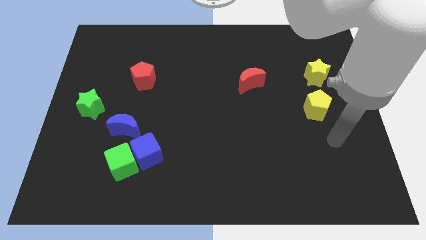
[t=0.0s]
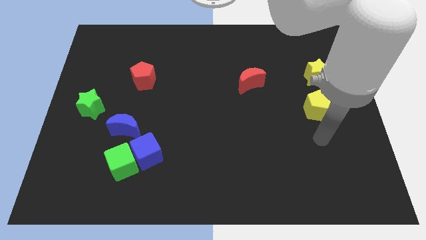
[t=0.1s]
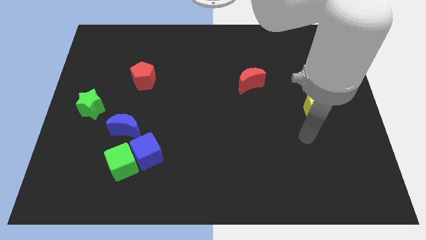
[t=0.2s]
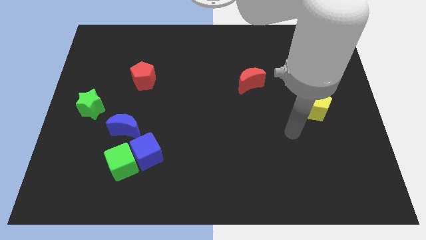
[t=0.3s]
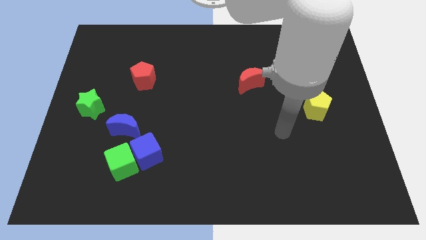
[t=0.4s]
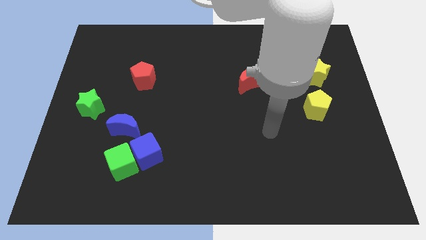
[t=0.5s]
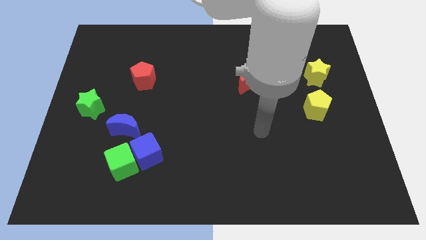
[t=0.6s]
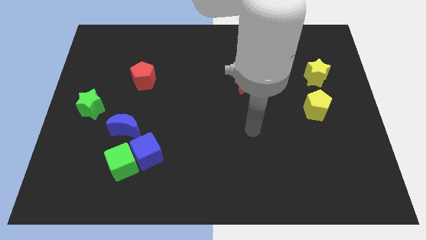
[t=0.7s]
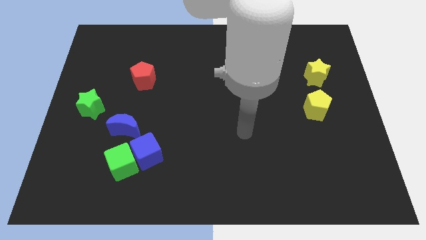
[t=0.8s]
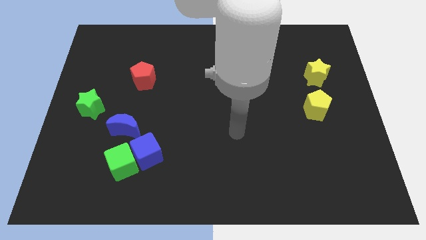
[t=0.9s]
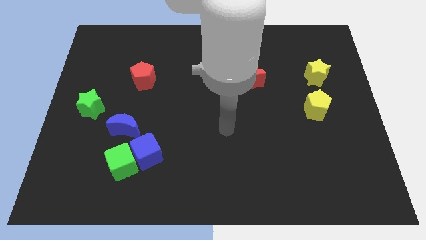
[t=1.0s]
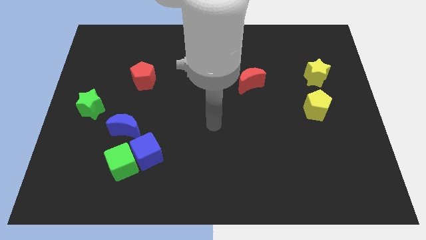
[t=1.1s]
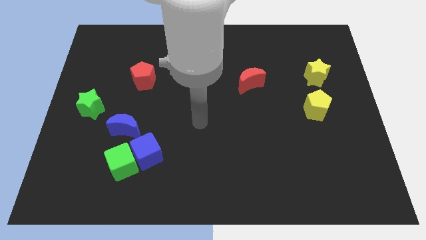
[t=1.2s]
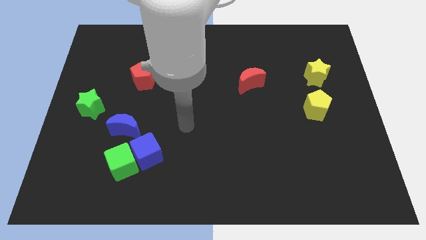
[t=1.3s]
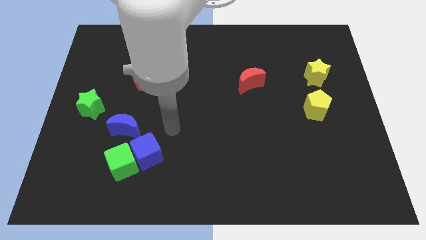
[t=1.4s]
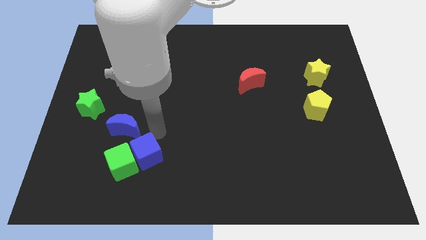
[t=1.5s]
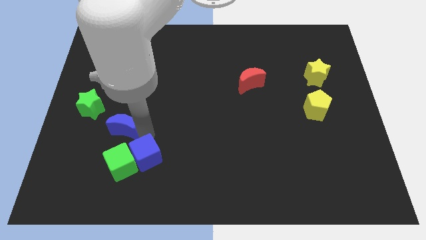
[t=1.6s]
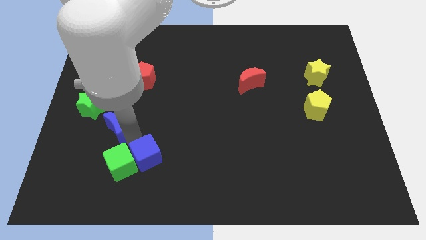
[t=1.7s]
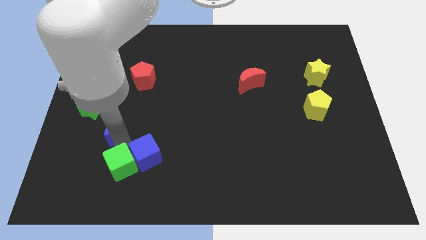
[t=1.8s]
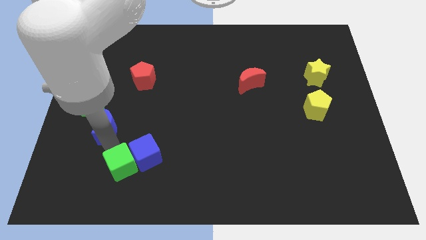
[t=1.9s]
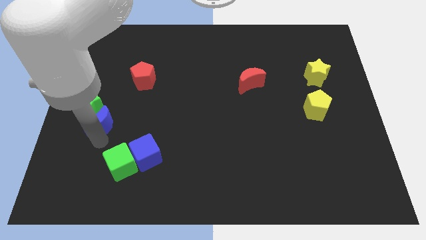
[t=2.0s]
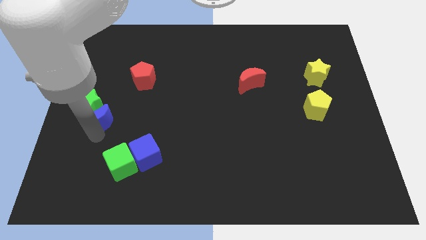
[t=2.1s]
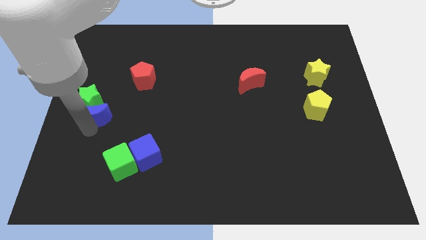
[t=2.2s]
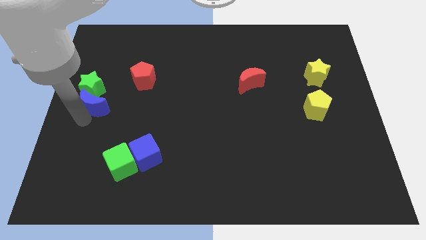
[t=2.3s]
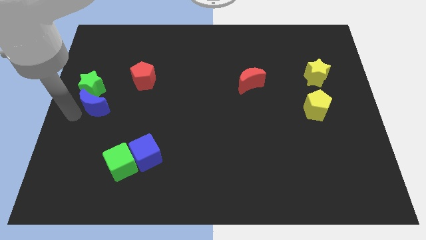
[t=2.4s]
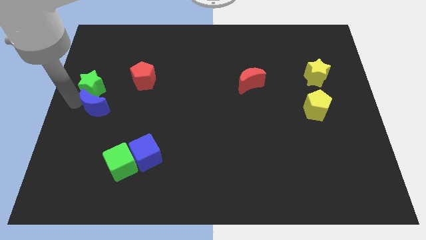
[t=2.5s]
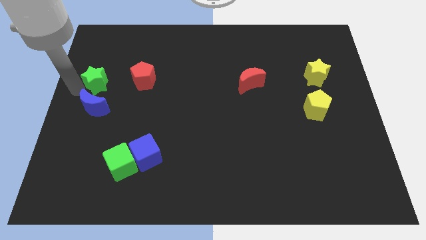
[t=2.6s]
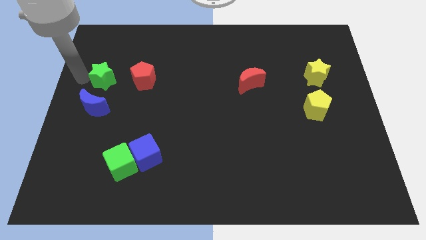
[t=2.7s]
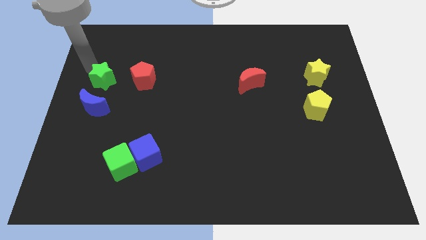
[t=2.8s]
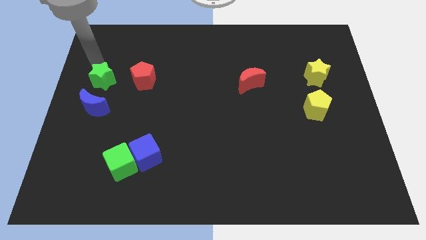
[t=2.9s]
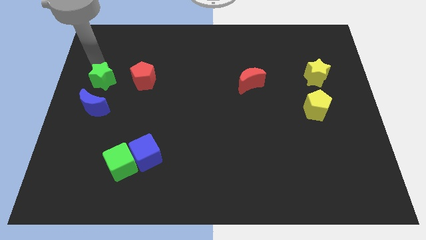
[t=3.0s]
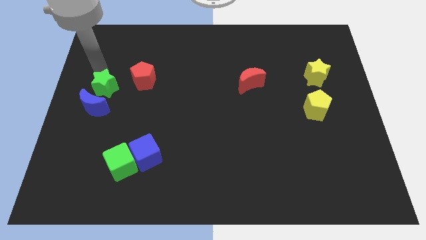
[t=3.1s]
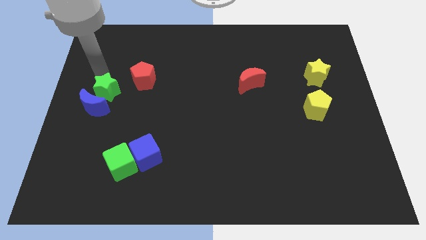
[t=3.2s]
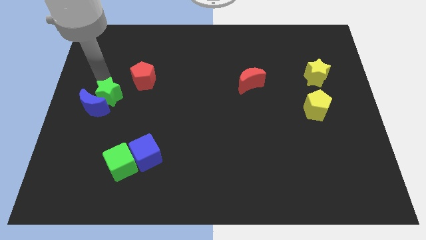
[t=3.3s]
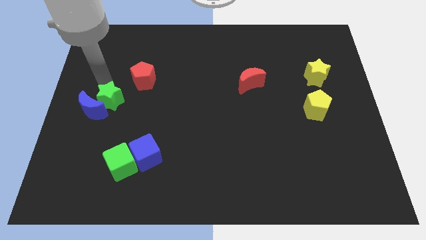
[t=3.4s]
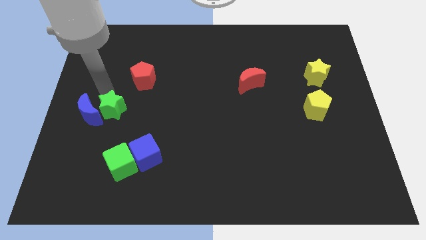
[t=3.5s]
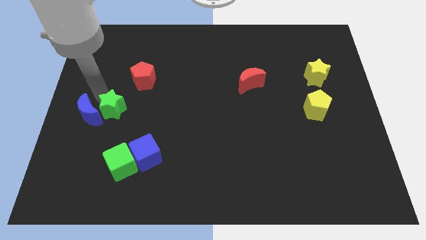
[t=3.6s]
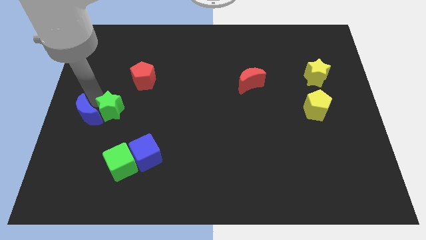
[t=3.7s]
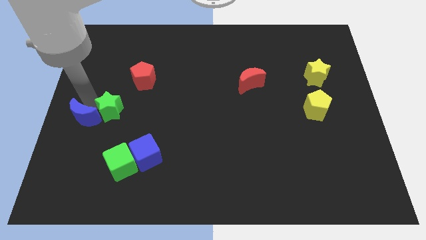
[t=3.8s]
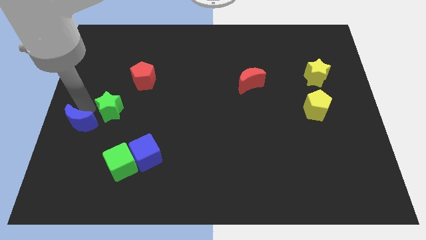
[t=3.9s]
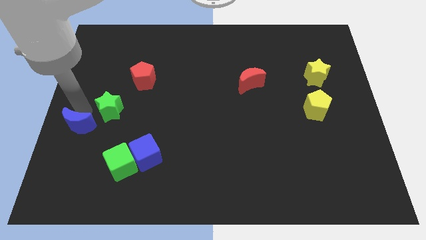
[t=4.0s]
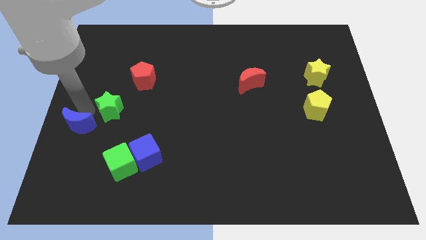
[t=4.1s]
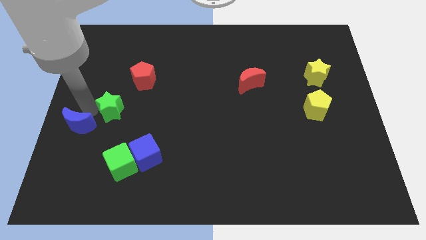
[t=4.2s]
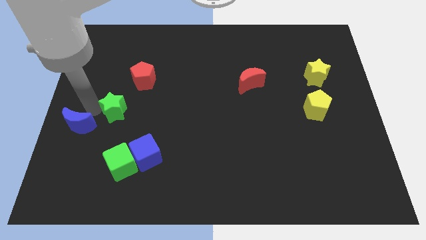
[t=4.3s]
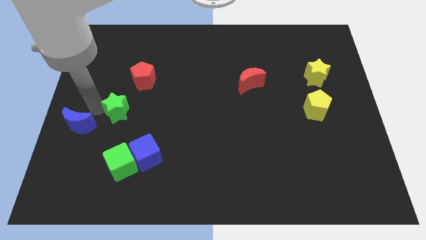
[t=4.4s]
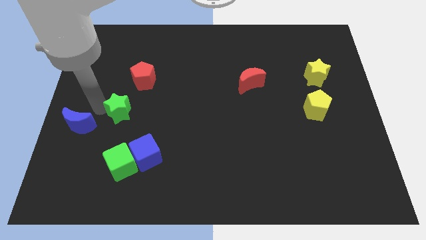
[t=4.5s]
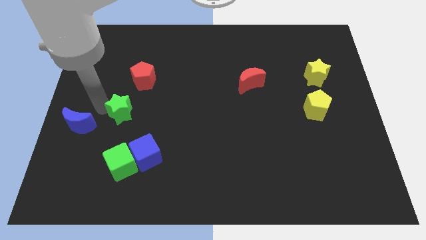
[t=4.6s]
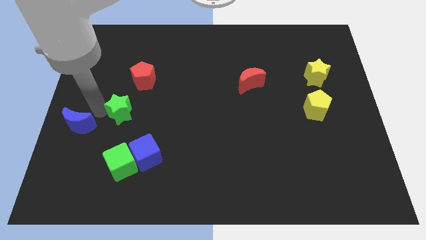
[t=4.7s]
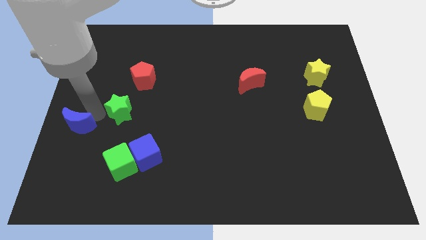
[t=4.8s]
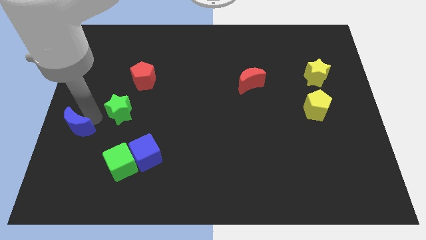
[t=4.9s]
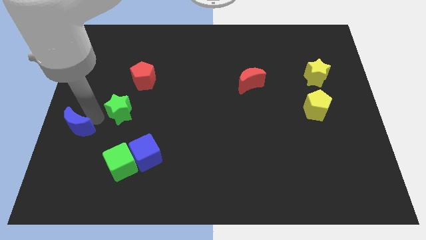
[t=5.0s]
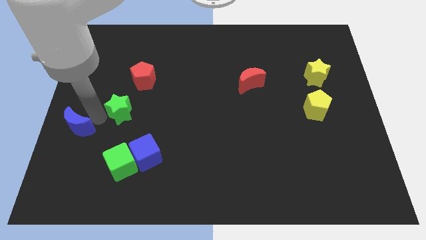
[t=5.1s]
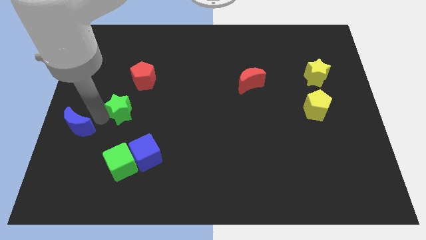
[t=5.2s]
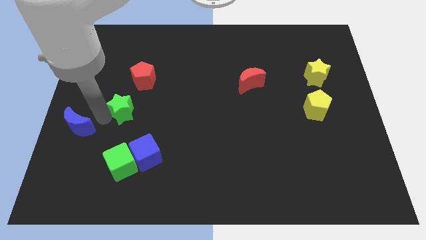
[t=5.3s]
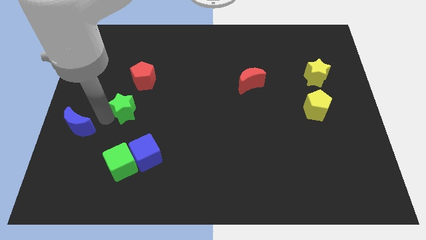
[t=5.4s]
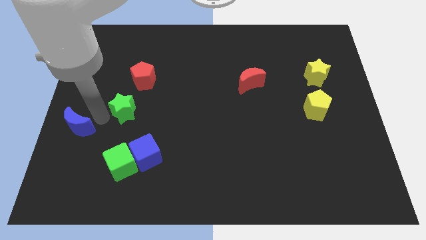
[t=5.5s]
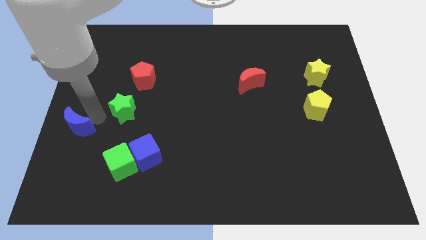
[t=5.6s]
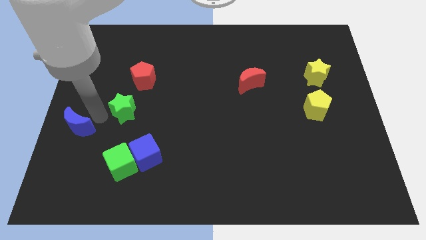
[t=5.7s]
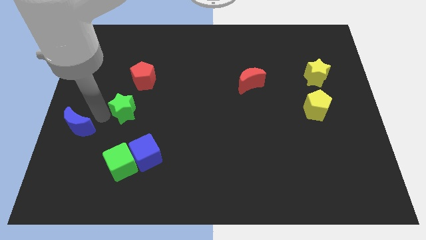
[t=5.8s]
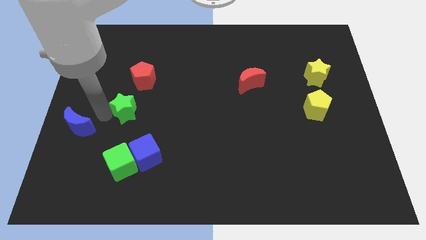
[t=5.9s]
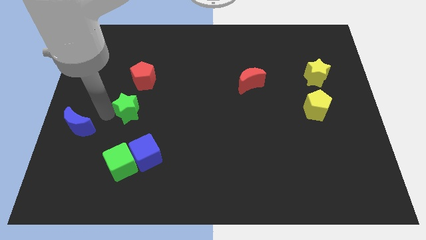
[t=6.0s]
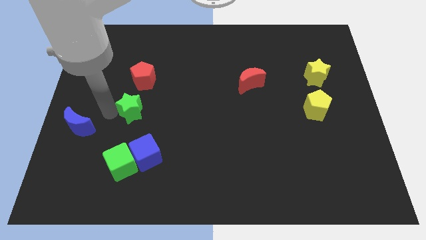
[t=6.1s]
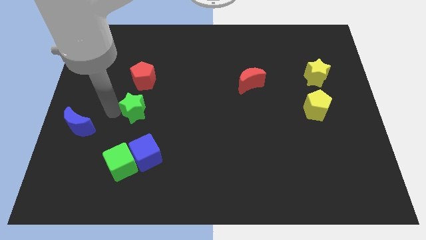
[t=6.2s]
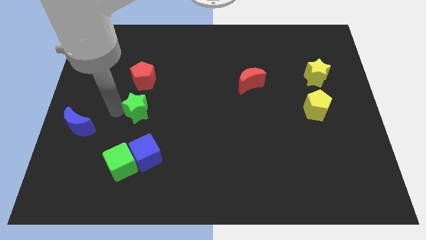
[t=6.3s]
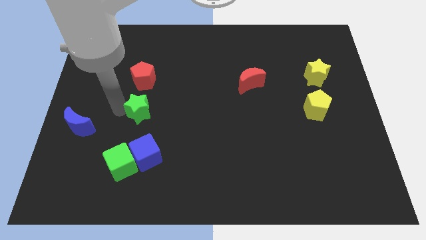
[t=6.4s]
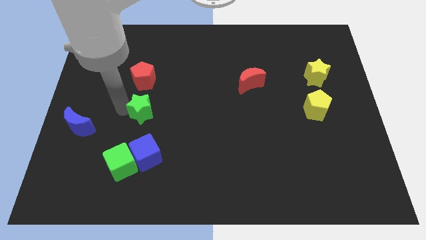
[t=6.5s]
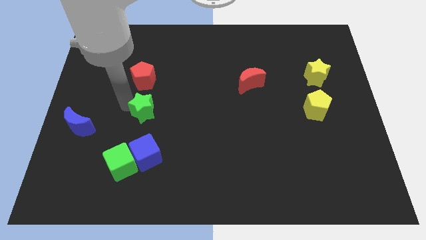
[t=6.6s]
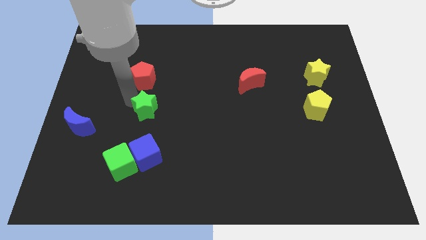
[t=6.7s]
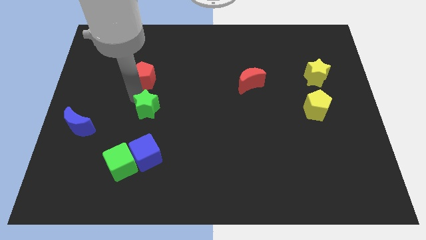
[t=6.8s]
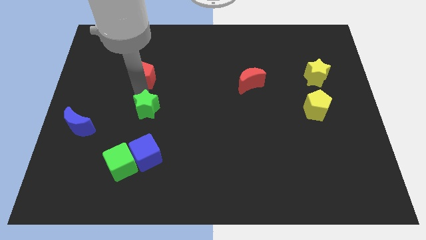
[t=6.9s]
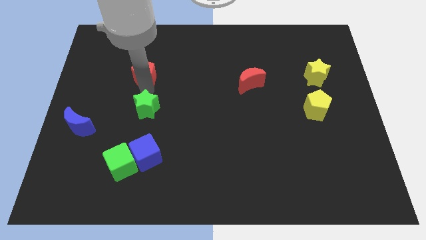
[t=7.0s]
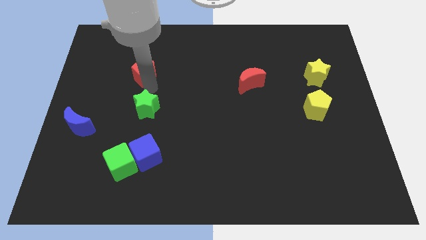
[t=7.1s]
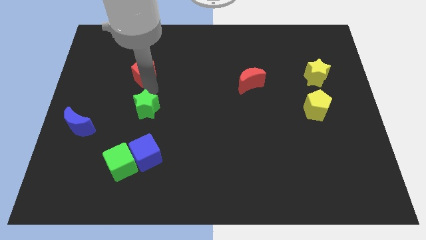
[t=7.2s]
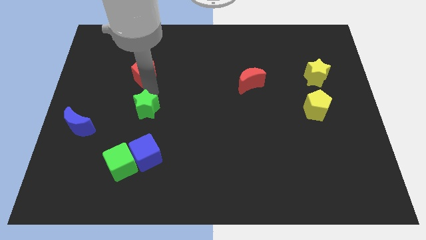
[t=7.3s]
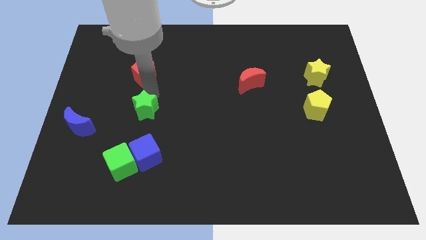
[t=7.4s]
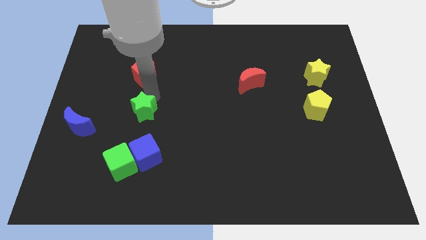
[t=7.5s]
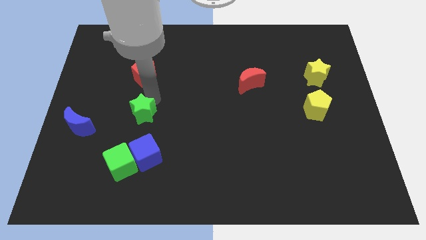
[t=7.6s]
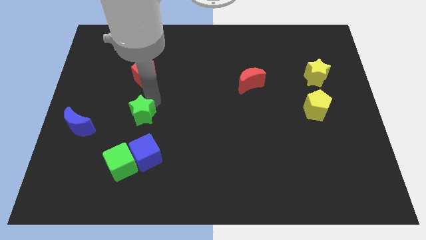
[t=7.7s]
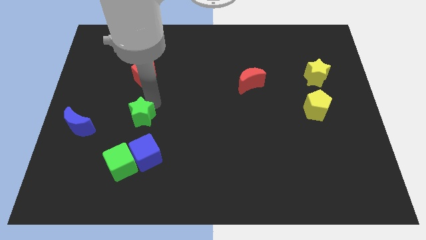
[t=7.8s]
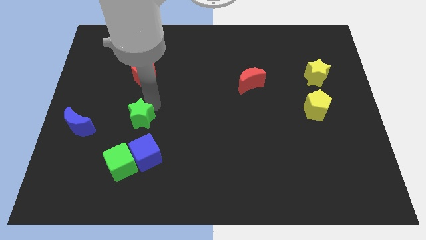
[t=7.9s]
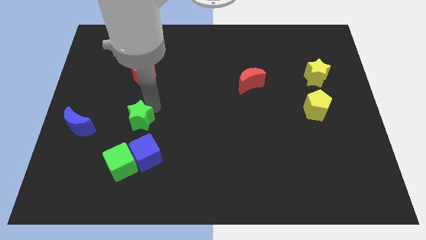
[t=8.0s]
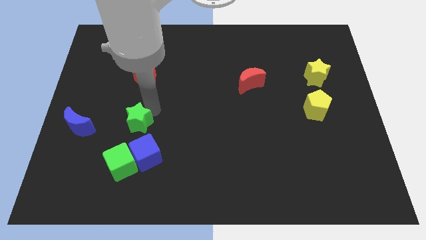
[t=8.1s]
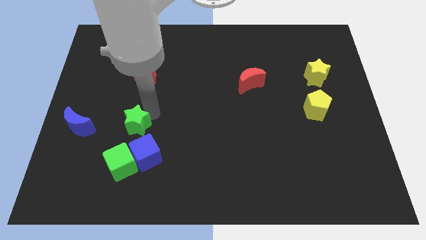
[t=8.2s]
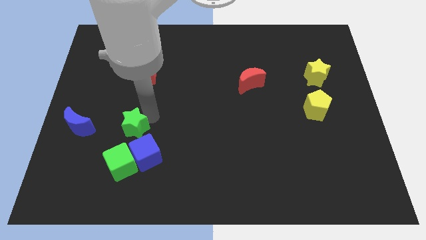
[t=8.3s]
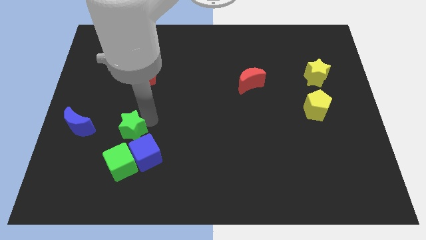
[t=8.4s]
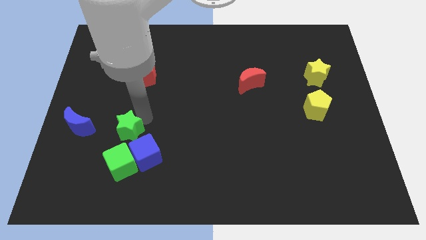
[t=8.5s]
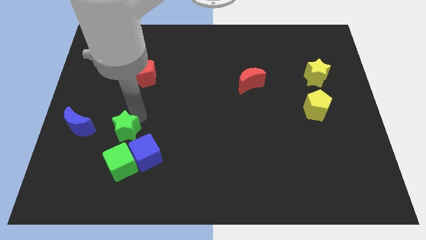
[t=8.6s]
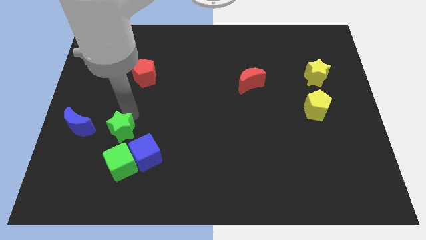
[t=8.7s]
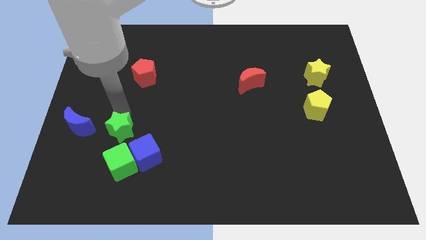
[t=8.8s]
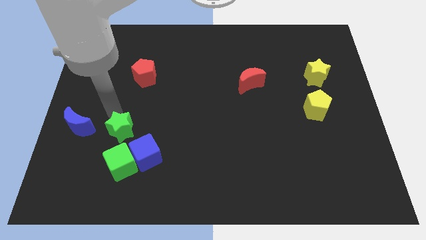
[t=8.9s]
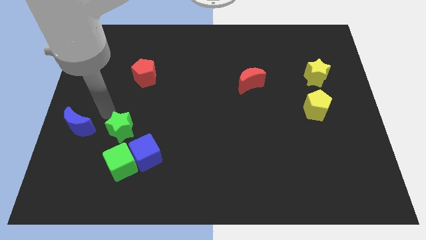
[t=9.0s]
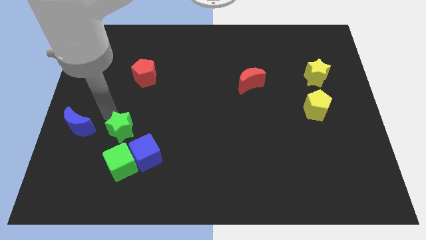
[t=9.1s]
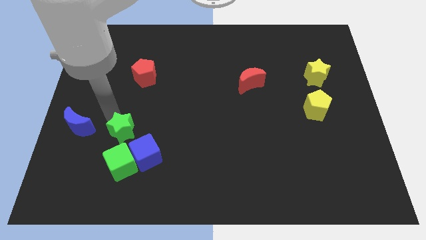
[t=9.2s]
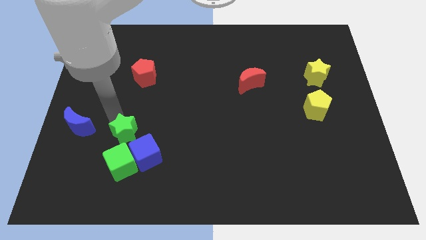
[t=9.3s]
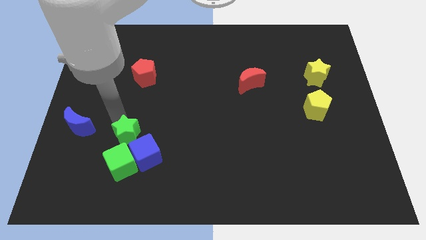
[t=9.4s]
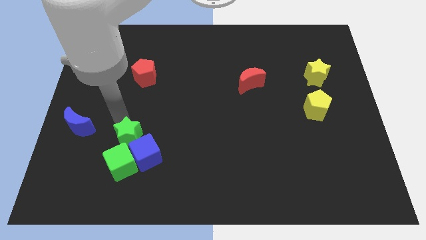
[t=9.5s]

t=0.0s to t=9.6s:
put the green star close to the blue cube
